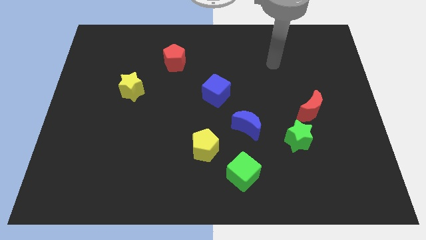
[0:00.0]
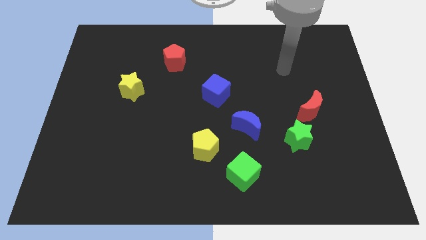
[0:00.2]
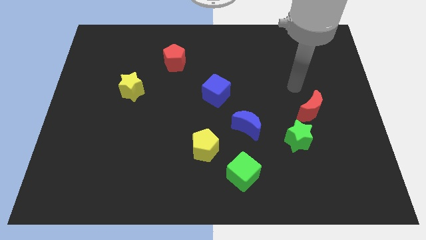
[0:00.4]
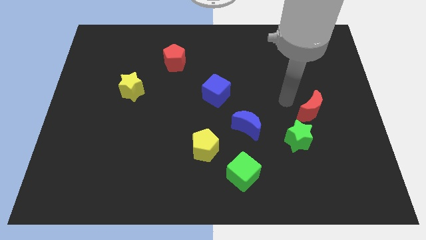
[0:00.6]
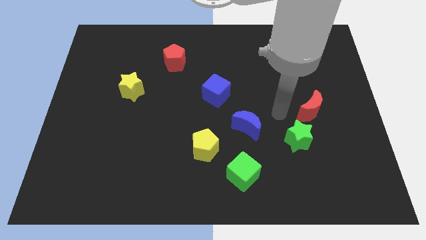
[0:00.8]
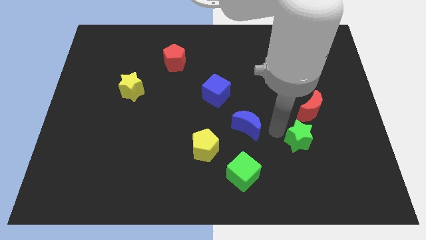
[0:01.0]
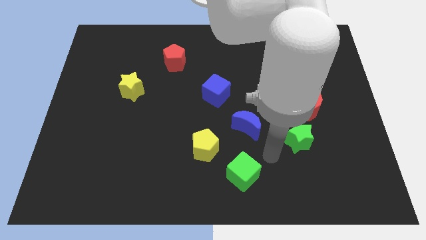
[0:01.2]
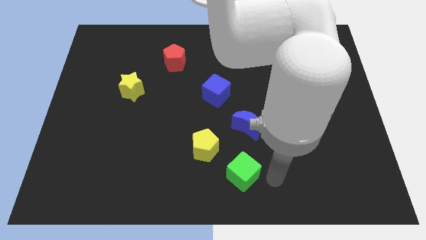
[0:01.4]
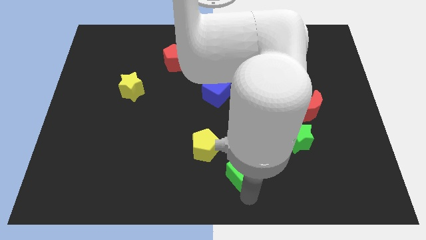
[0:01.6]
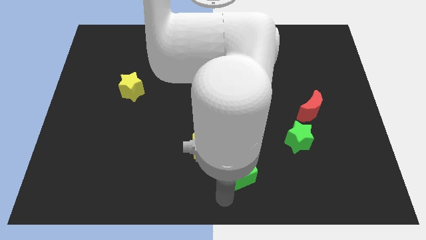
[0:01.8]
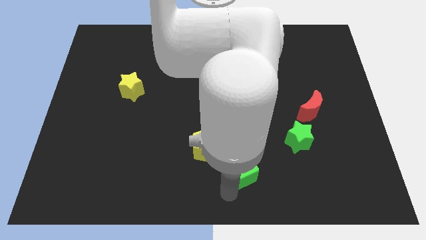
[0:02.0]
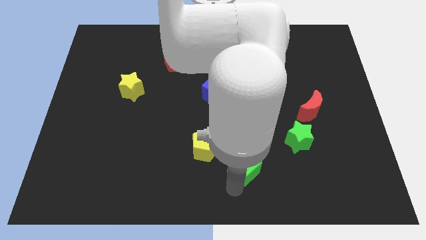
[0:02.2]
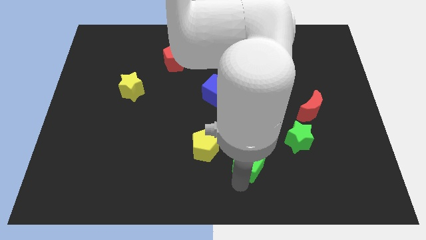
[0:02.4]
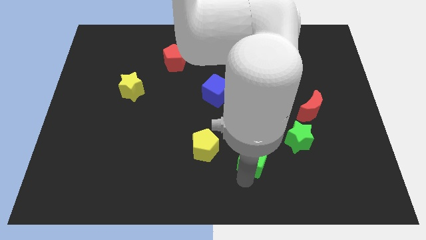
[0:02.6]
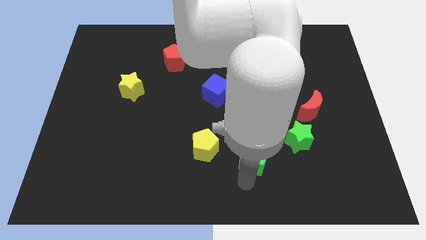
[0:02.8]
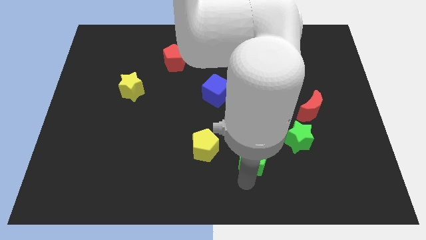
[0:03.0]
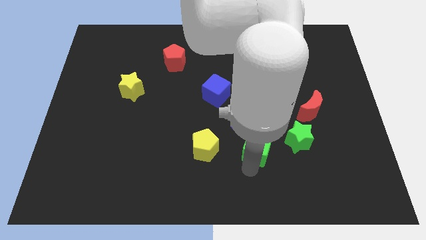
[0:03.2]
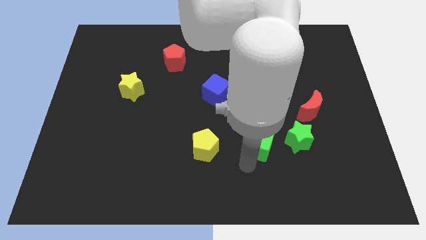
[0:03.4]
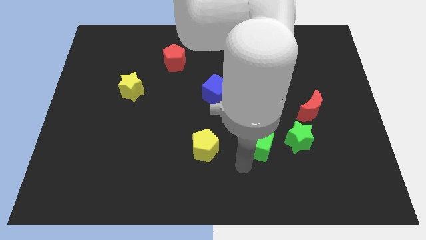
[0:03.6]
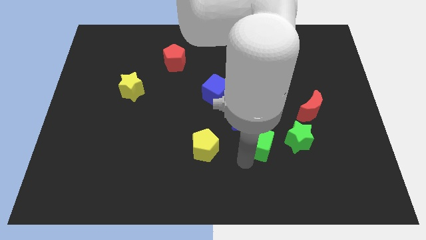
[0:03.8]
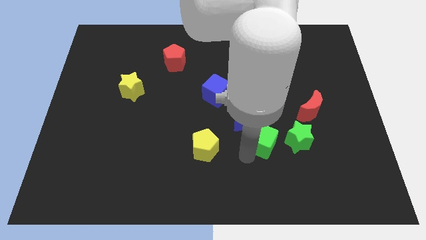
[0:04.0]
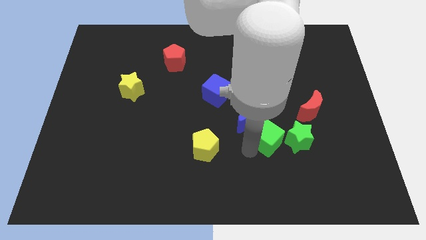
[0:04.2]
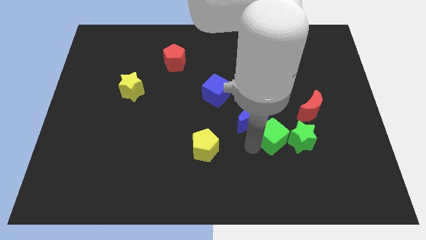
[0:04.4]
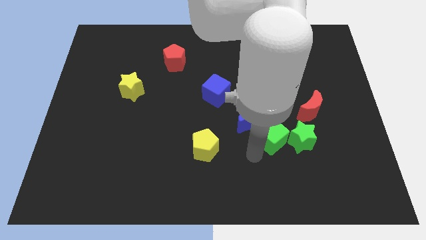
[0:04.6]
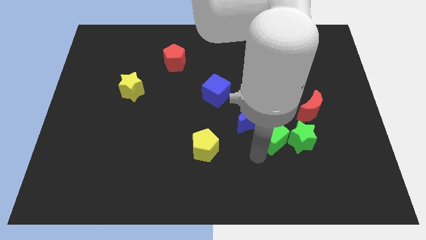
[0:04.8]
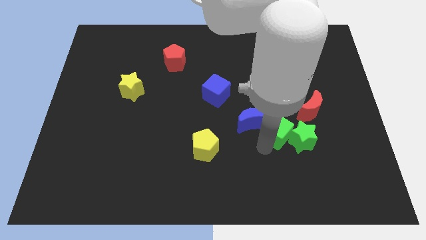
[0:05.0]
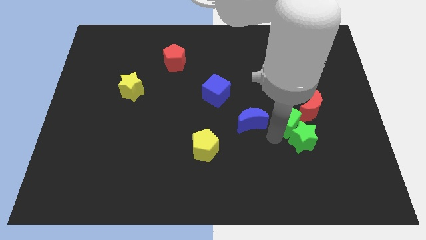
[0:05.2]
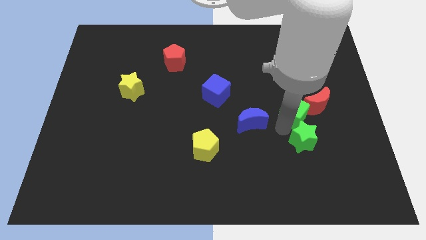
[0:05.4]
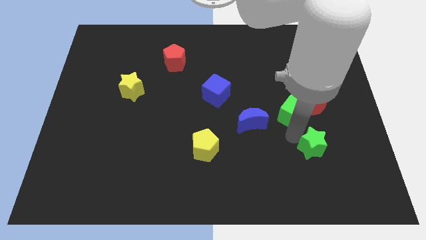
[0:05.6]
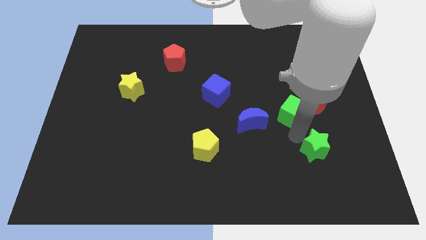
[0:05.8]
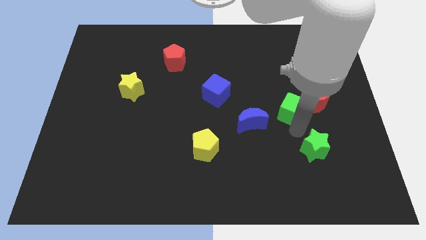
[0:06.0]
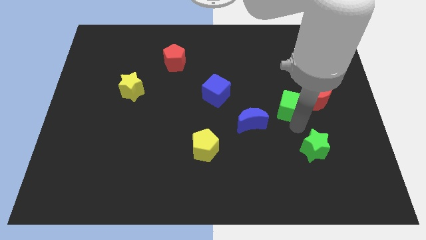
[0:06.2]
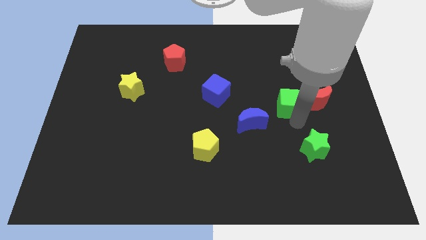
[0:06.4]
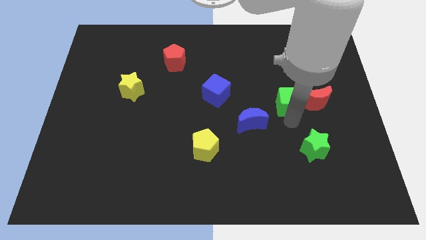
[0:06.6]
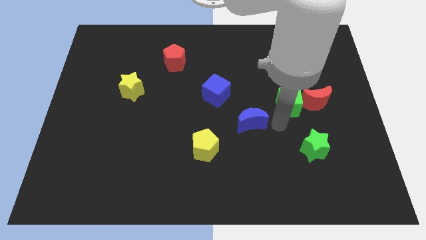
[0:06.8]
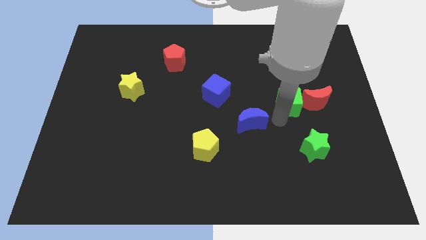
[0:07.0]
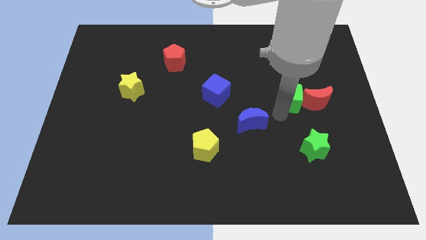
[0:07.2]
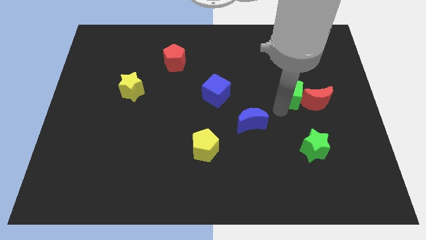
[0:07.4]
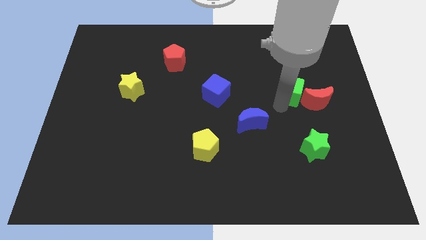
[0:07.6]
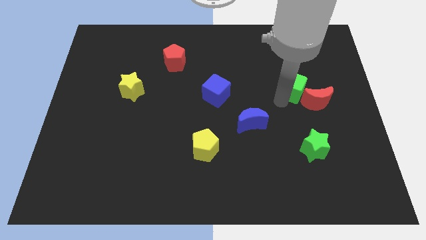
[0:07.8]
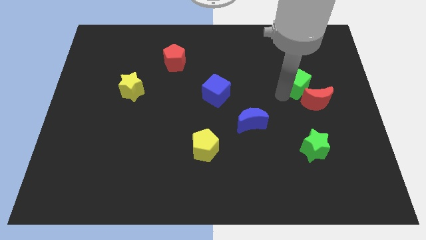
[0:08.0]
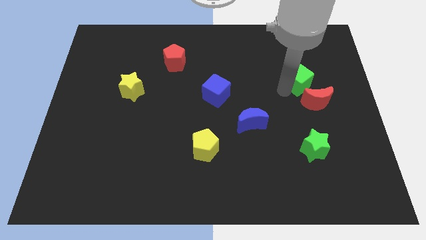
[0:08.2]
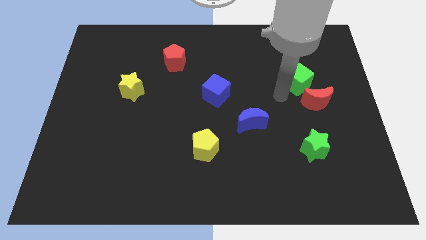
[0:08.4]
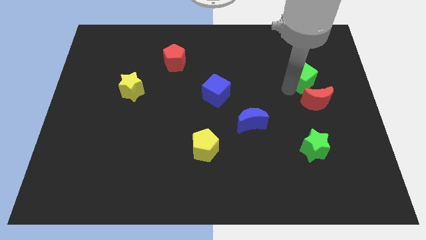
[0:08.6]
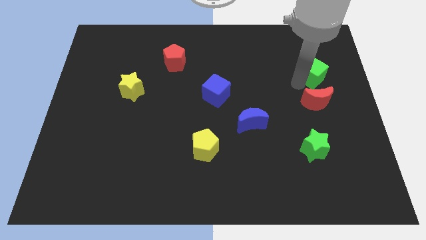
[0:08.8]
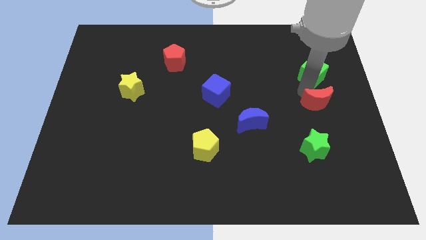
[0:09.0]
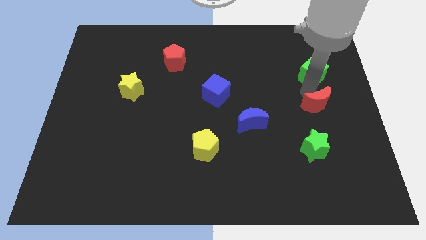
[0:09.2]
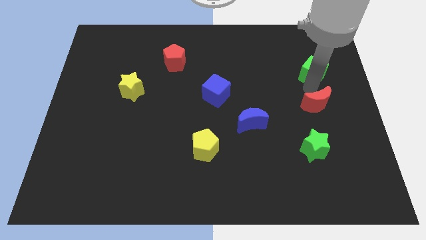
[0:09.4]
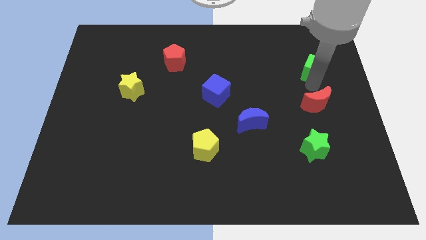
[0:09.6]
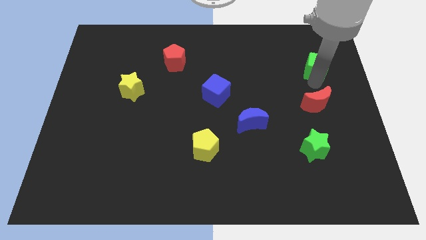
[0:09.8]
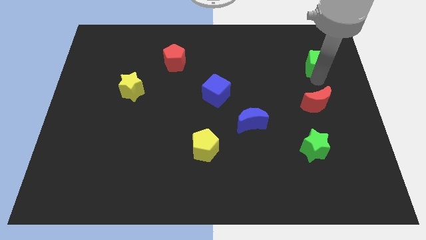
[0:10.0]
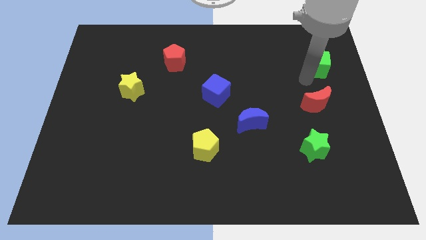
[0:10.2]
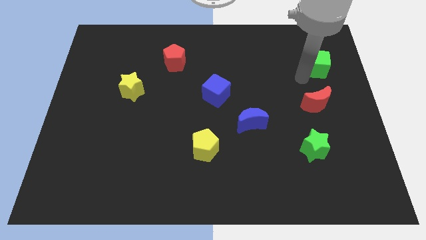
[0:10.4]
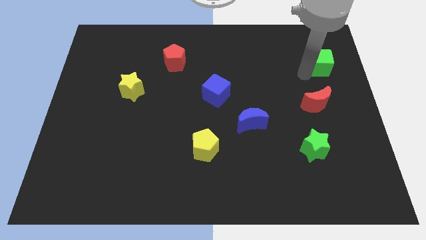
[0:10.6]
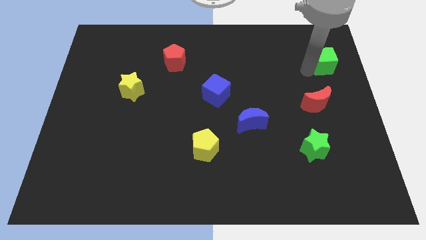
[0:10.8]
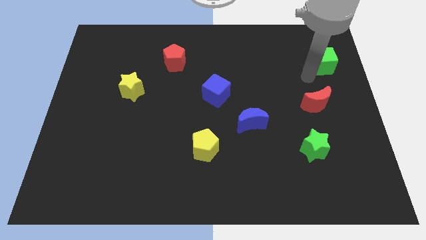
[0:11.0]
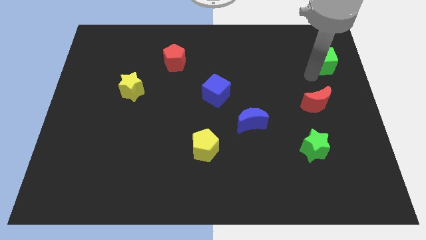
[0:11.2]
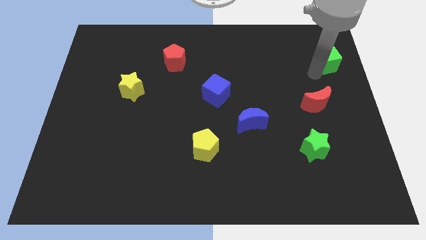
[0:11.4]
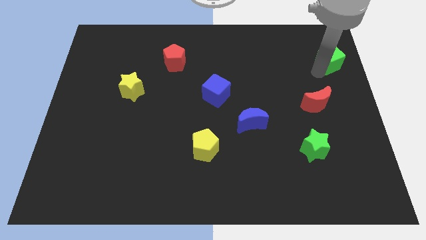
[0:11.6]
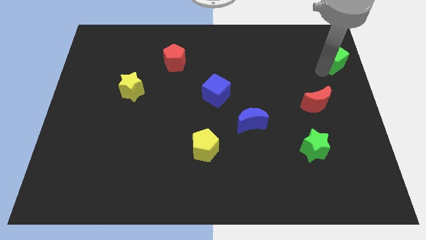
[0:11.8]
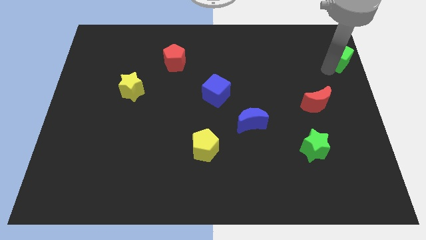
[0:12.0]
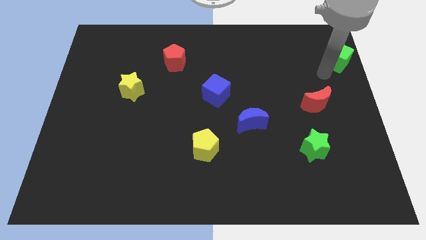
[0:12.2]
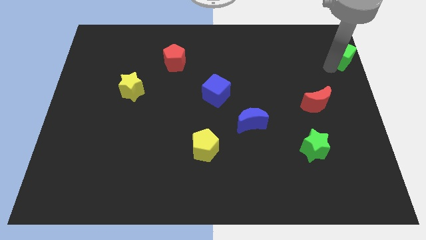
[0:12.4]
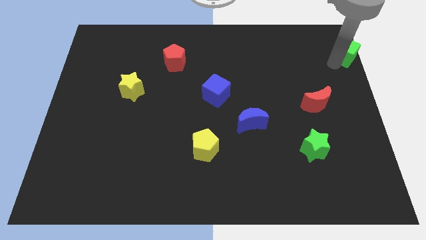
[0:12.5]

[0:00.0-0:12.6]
move the green cube to the top right

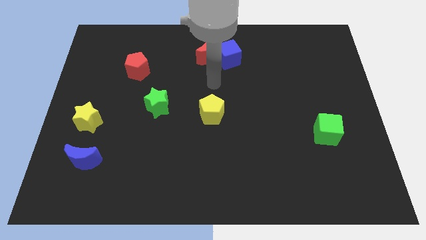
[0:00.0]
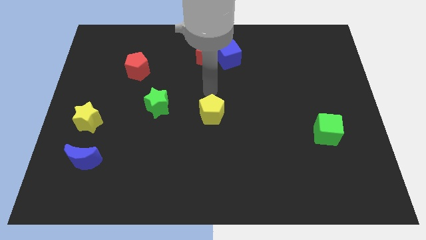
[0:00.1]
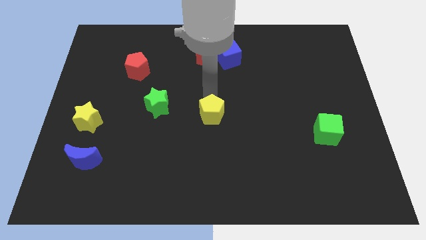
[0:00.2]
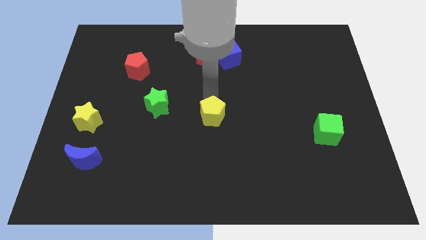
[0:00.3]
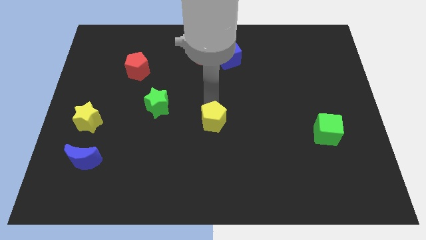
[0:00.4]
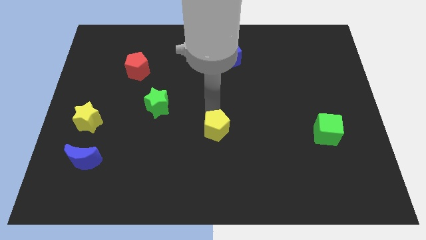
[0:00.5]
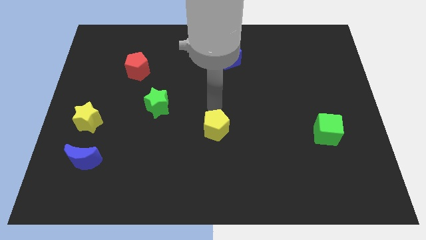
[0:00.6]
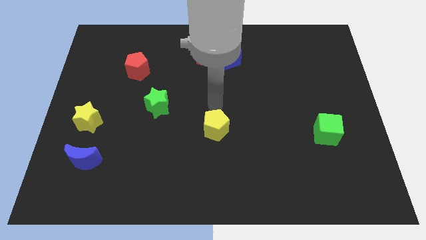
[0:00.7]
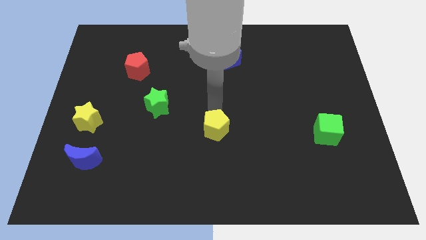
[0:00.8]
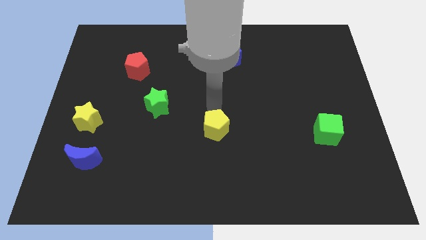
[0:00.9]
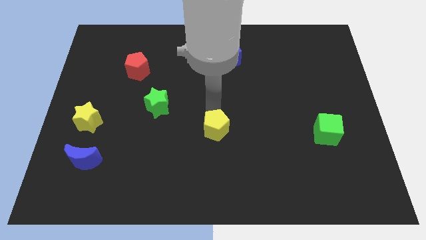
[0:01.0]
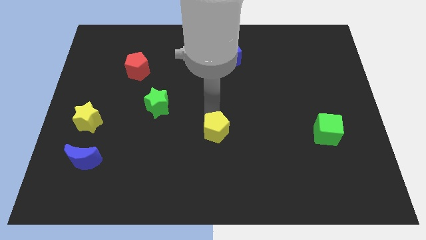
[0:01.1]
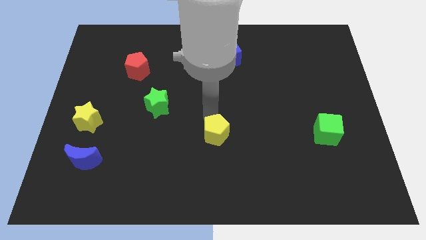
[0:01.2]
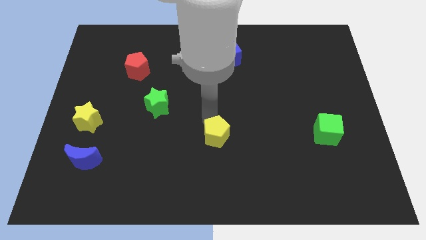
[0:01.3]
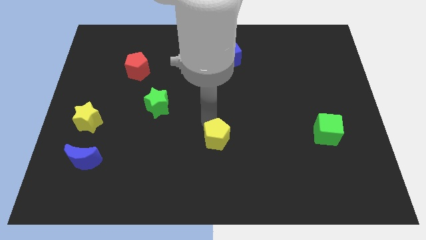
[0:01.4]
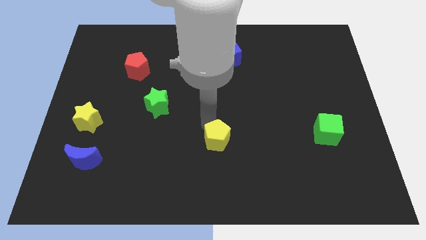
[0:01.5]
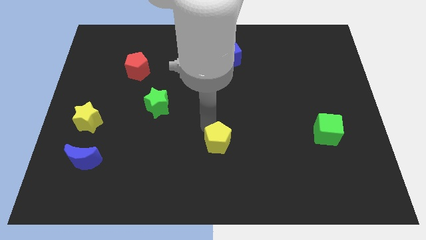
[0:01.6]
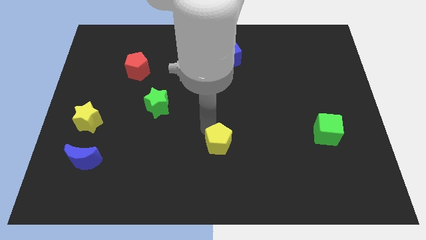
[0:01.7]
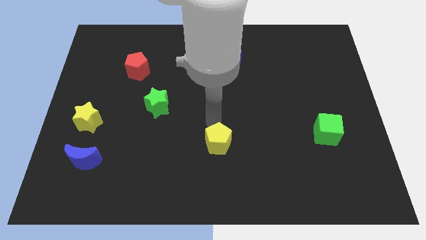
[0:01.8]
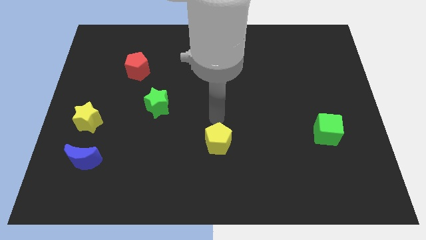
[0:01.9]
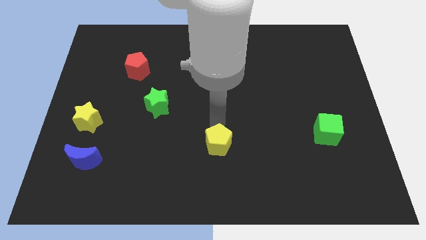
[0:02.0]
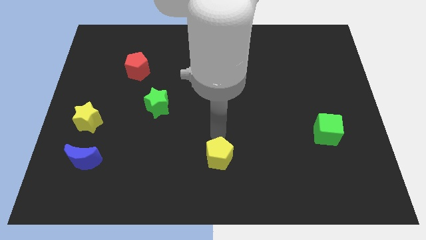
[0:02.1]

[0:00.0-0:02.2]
slide the yellow pentagon to the bottom side
